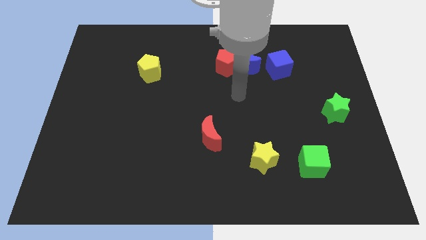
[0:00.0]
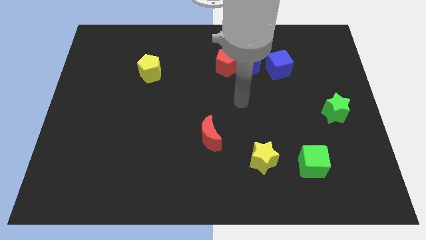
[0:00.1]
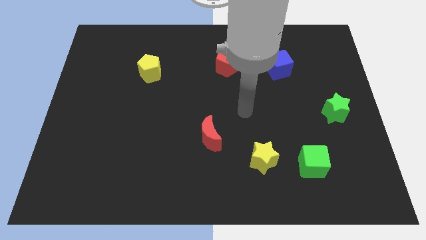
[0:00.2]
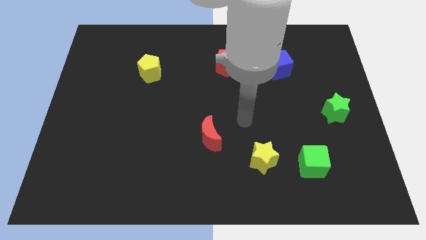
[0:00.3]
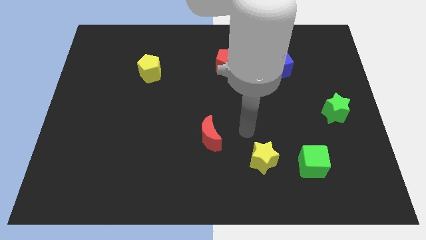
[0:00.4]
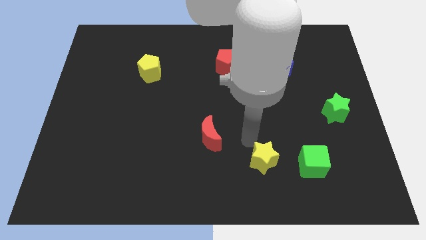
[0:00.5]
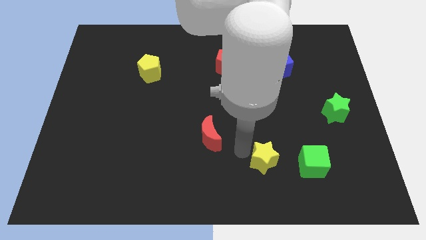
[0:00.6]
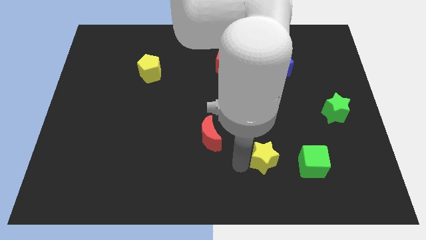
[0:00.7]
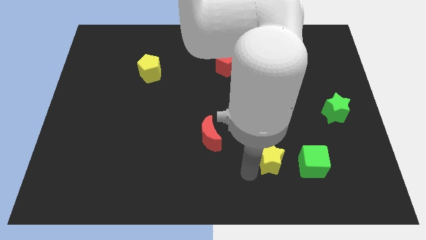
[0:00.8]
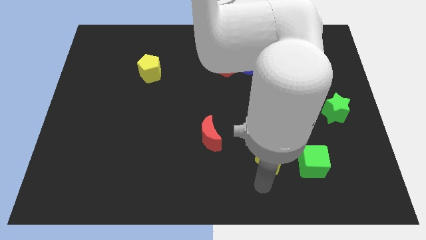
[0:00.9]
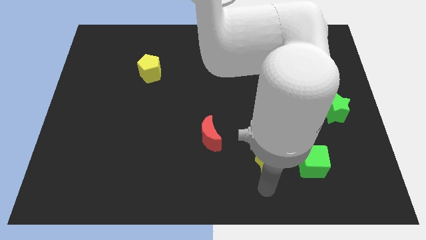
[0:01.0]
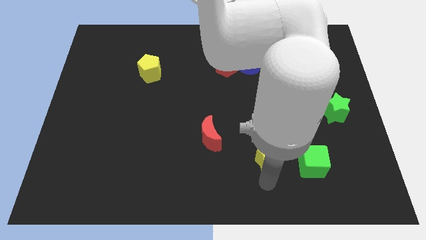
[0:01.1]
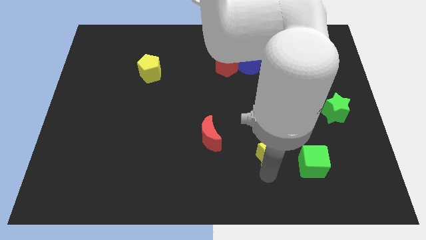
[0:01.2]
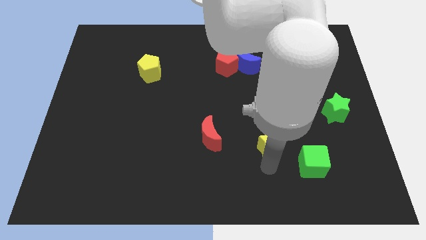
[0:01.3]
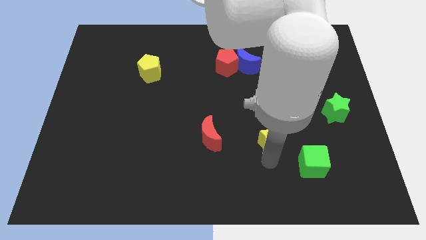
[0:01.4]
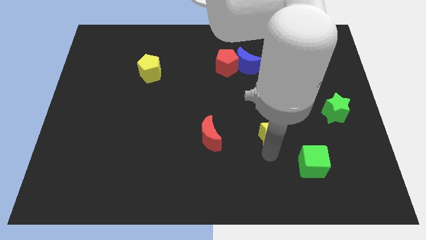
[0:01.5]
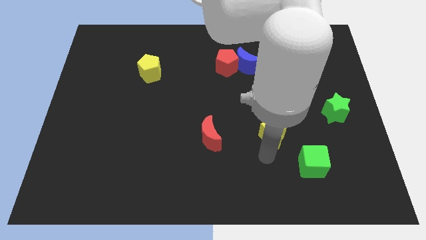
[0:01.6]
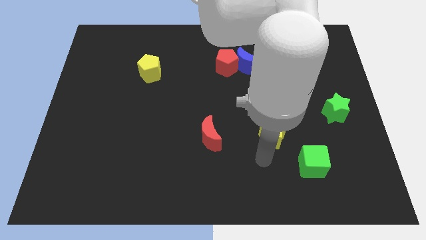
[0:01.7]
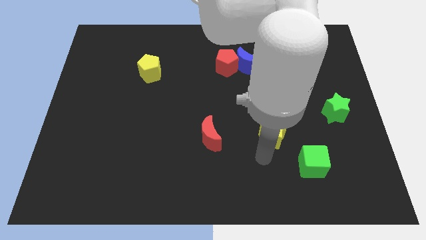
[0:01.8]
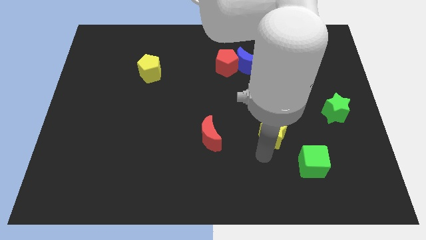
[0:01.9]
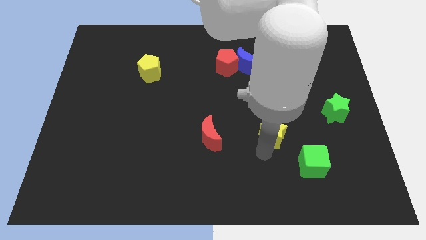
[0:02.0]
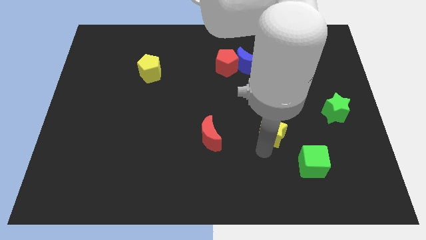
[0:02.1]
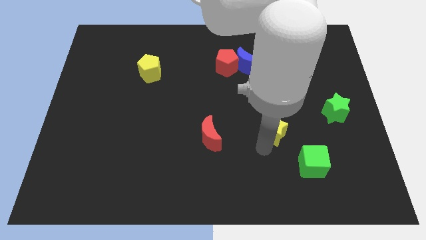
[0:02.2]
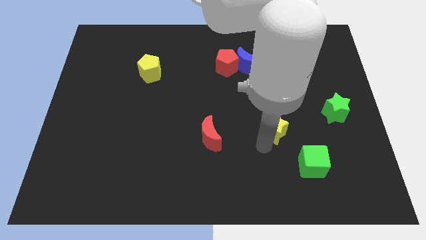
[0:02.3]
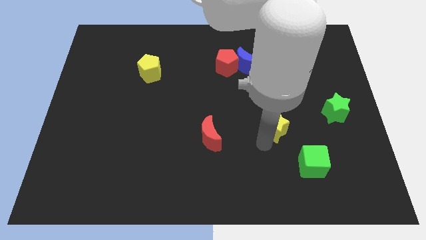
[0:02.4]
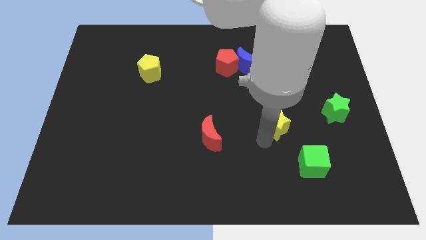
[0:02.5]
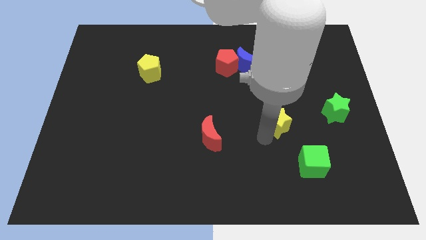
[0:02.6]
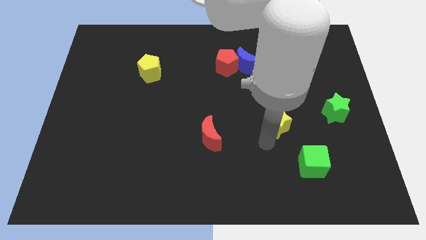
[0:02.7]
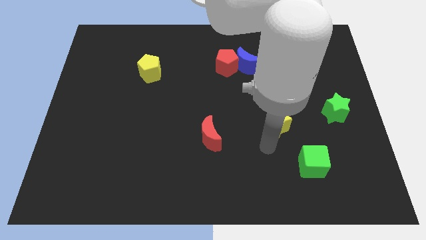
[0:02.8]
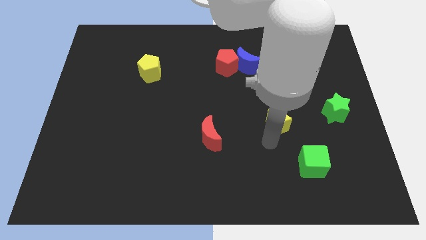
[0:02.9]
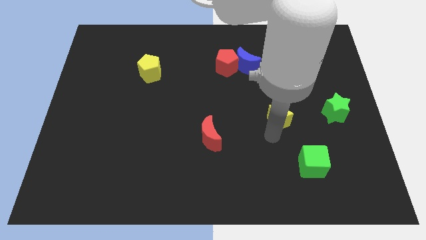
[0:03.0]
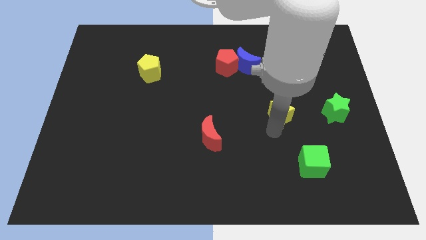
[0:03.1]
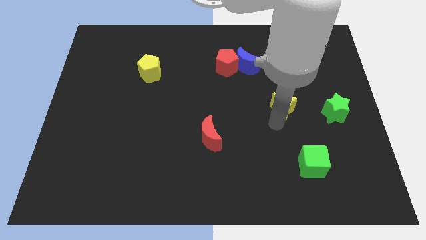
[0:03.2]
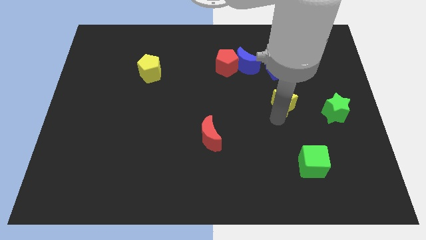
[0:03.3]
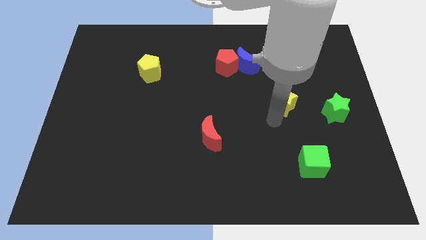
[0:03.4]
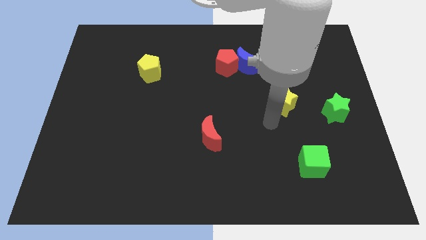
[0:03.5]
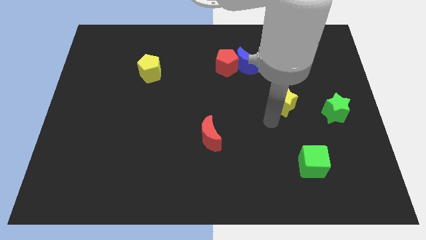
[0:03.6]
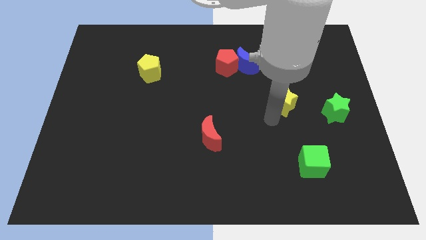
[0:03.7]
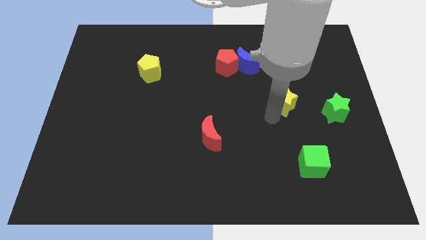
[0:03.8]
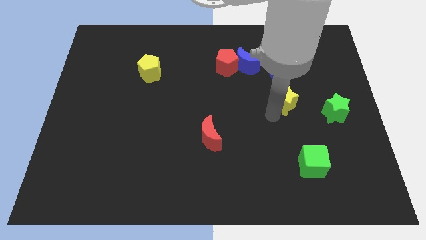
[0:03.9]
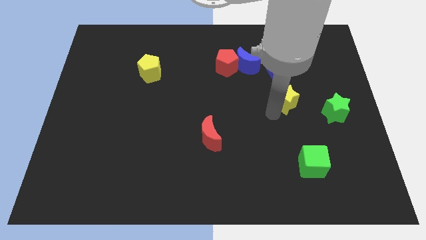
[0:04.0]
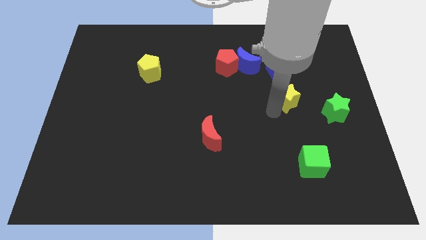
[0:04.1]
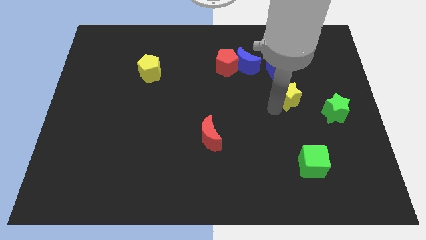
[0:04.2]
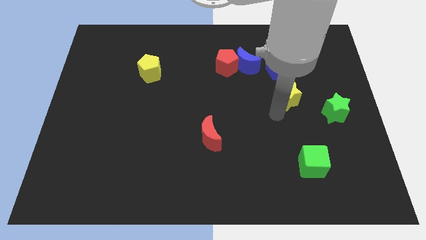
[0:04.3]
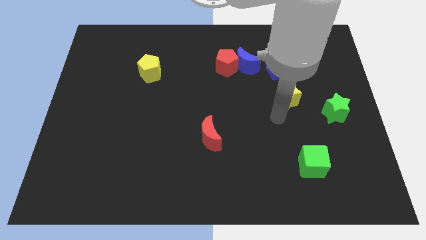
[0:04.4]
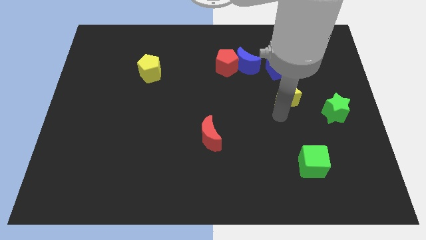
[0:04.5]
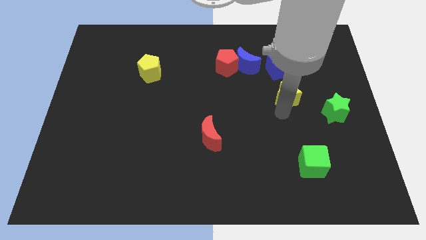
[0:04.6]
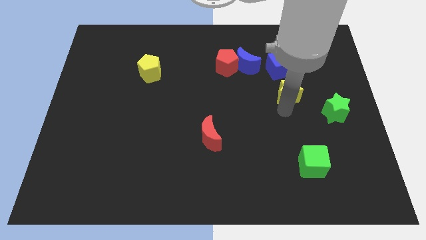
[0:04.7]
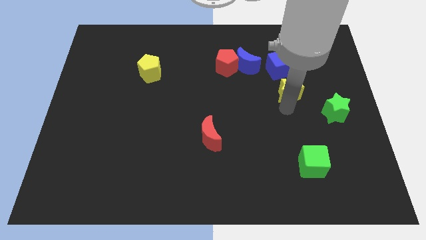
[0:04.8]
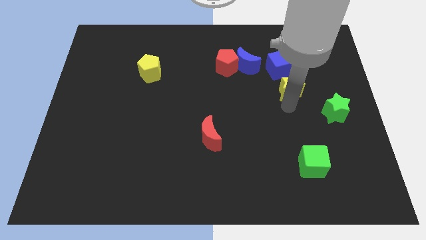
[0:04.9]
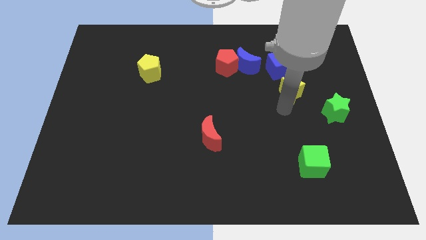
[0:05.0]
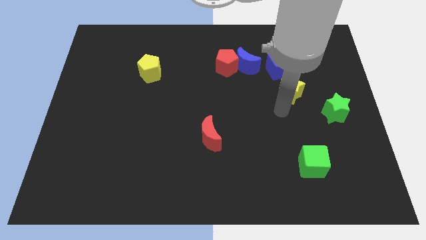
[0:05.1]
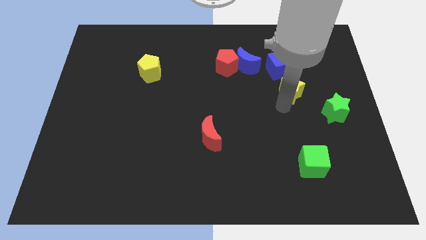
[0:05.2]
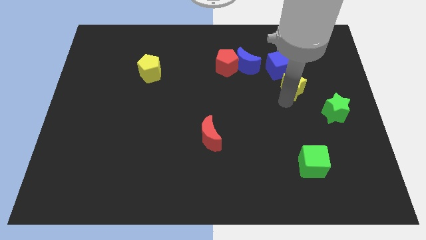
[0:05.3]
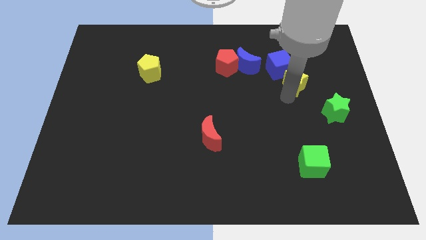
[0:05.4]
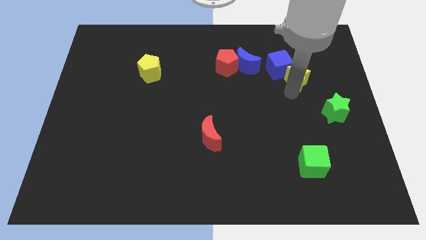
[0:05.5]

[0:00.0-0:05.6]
move the yellow star to the right of the blue moon

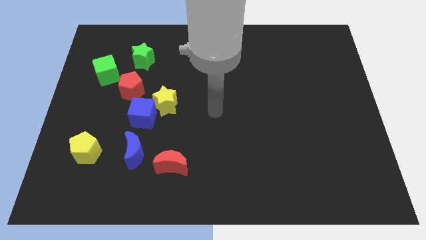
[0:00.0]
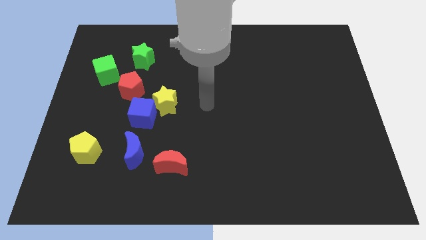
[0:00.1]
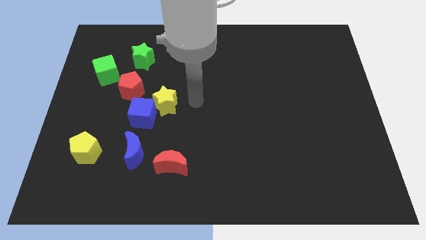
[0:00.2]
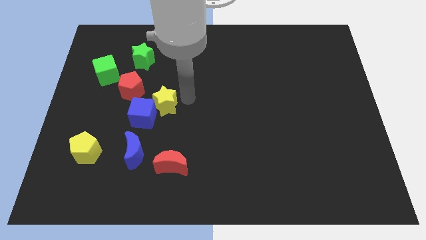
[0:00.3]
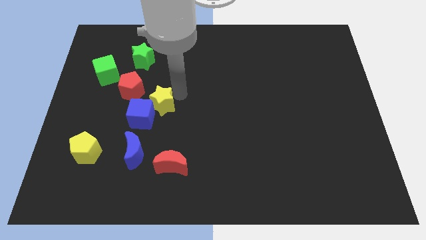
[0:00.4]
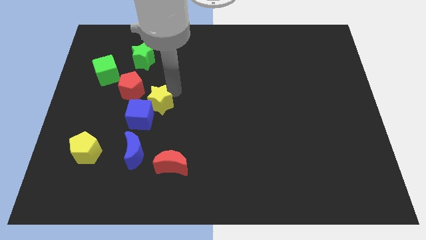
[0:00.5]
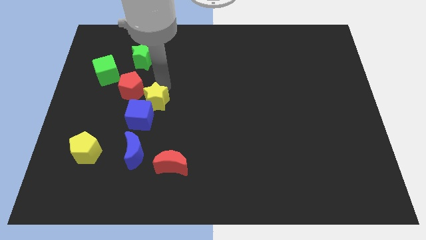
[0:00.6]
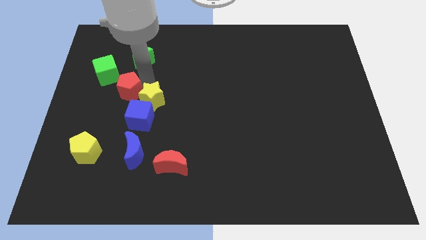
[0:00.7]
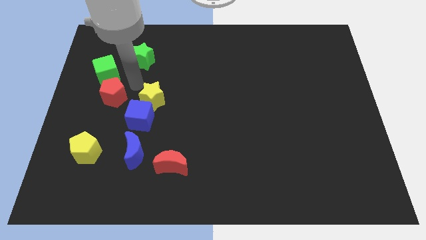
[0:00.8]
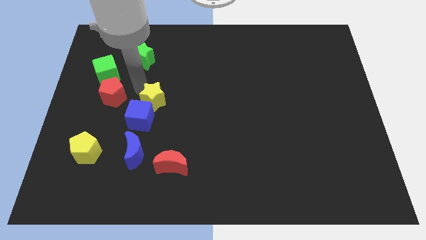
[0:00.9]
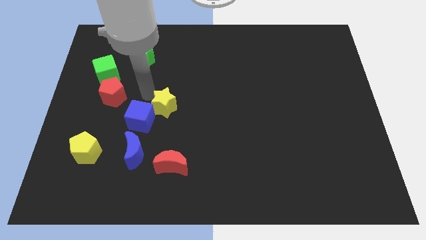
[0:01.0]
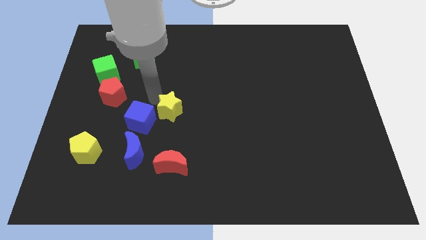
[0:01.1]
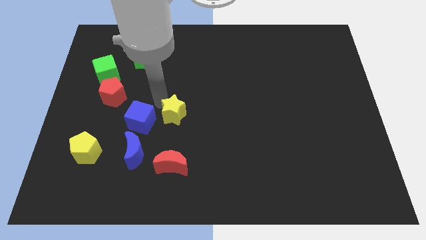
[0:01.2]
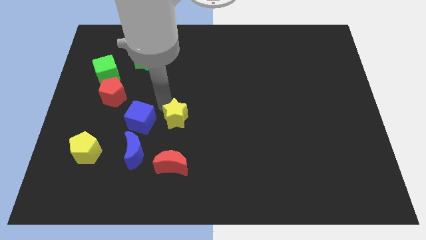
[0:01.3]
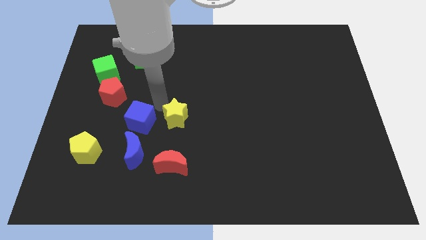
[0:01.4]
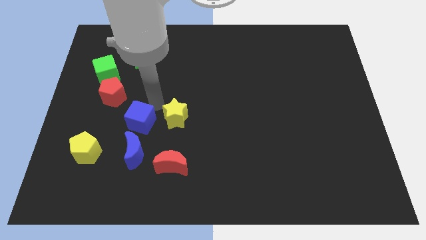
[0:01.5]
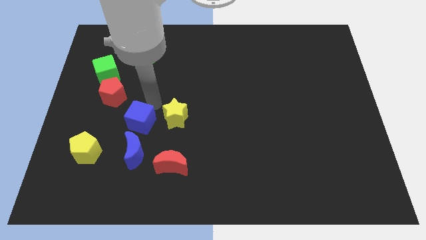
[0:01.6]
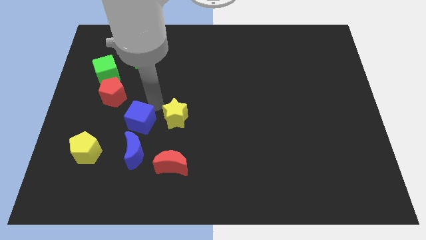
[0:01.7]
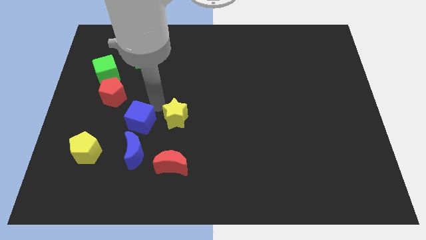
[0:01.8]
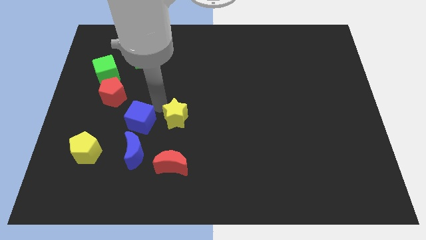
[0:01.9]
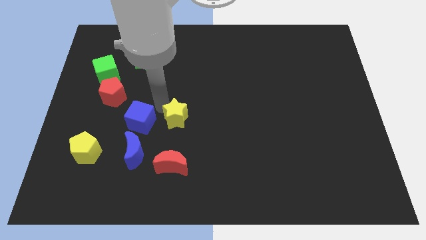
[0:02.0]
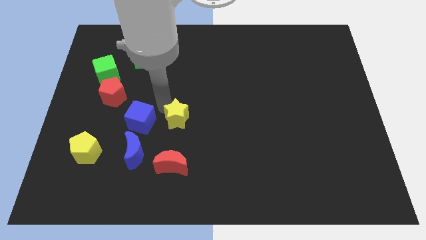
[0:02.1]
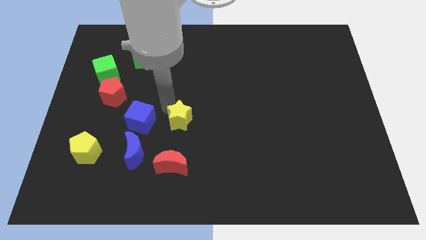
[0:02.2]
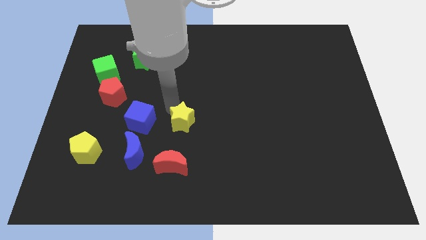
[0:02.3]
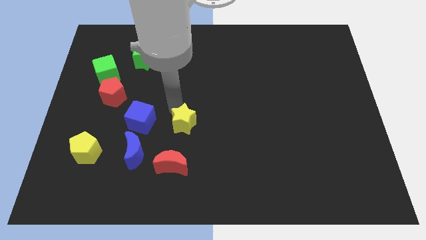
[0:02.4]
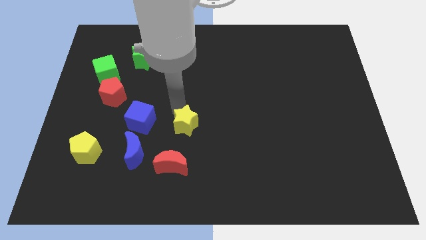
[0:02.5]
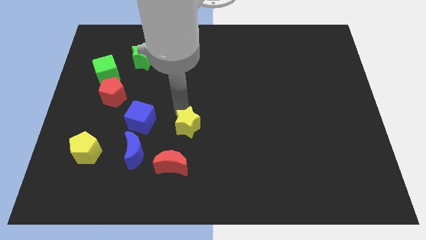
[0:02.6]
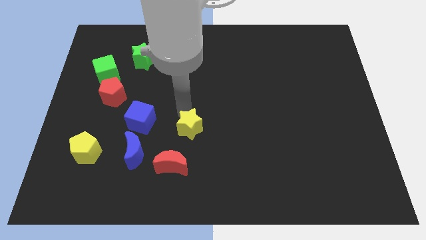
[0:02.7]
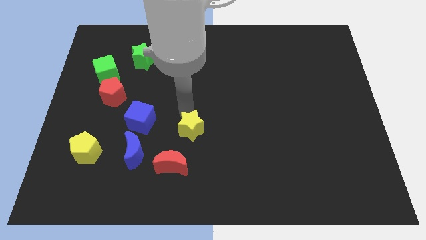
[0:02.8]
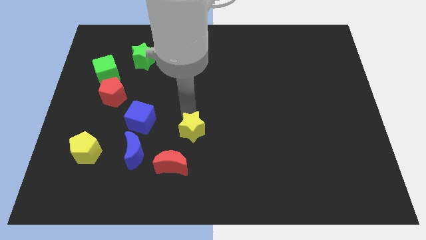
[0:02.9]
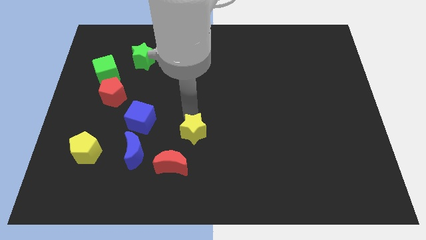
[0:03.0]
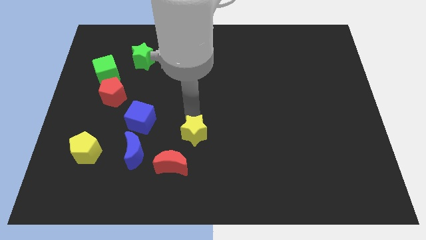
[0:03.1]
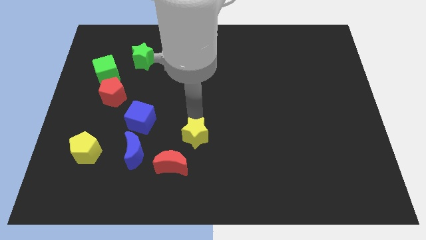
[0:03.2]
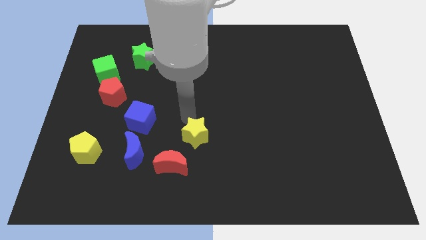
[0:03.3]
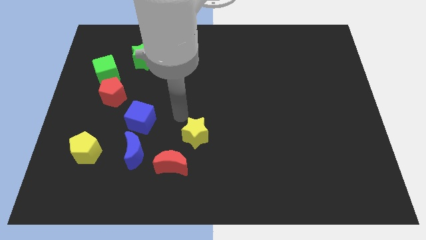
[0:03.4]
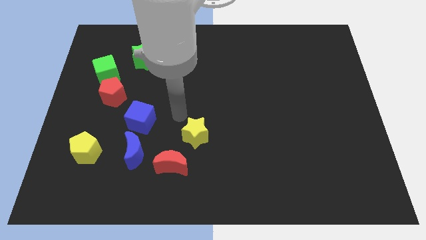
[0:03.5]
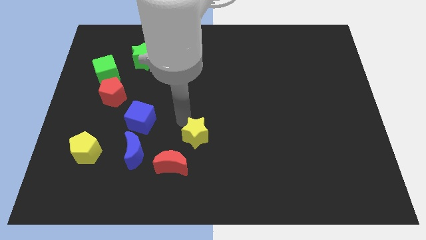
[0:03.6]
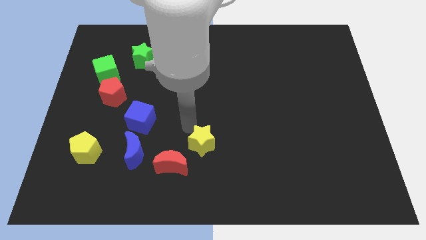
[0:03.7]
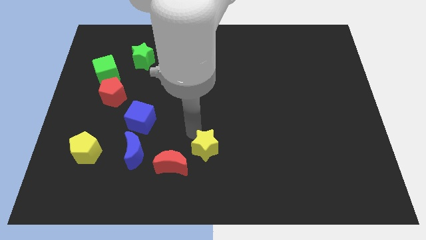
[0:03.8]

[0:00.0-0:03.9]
put the yellow star to the right side of the red moon

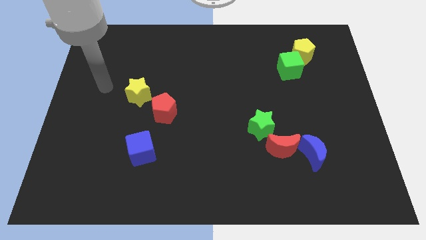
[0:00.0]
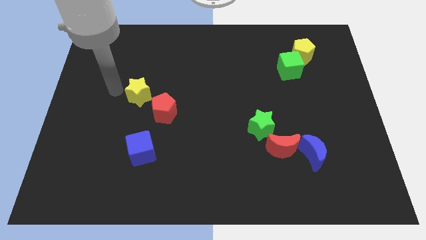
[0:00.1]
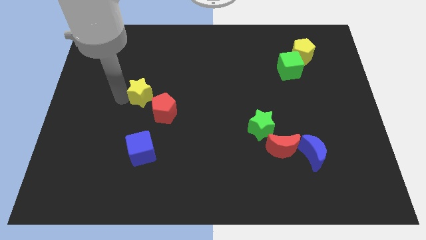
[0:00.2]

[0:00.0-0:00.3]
put the red pentagon just right of the yellow star
